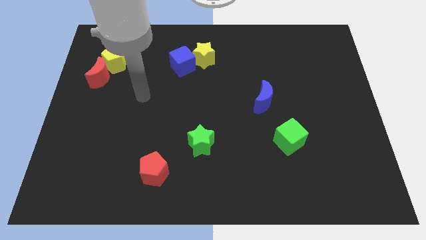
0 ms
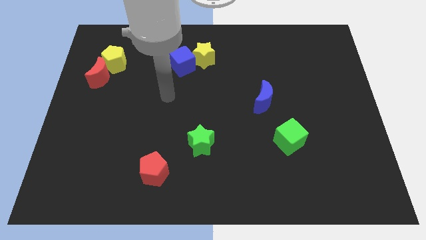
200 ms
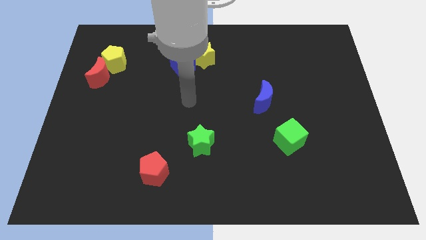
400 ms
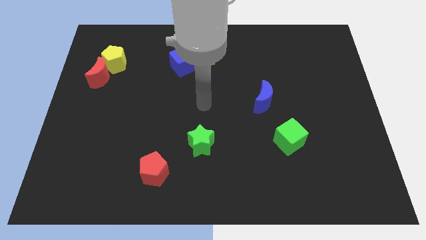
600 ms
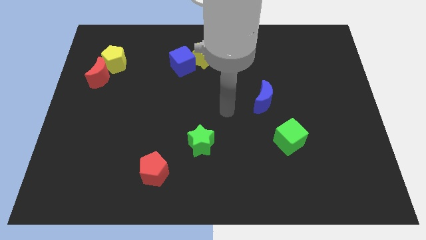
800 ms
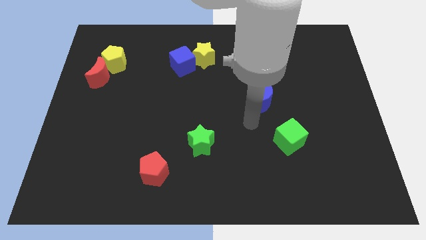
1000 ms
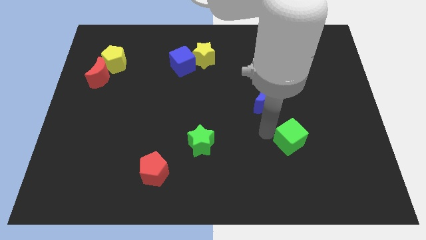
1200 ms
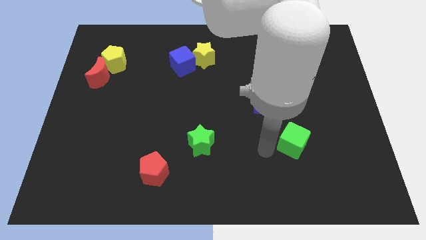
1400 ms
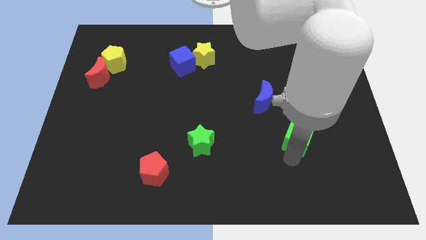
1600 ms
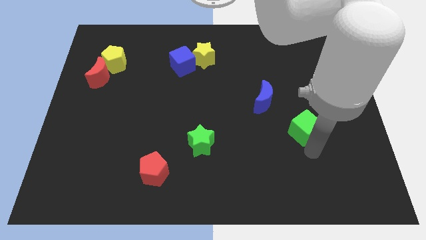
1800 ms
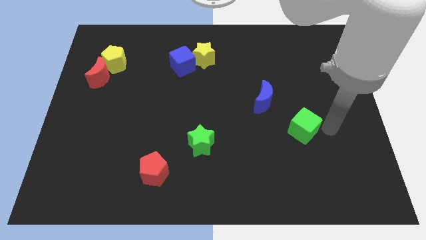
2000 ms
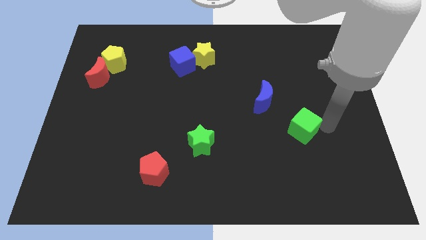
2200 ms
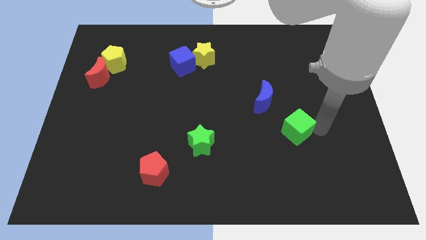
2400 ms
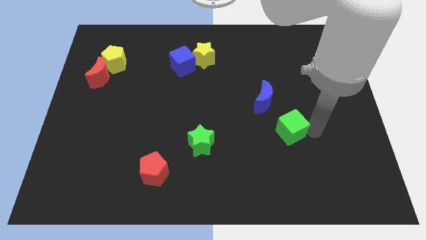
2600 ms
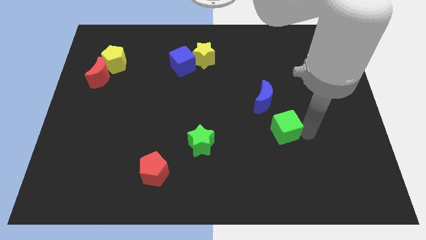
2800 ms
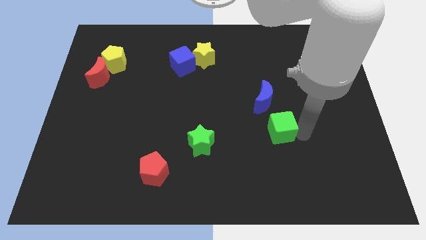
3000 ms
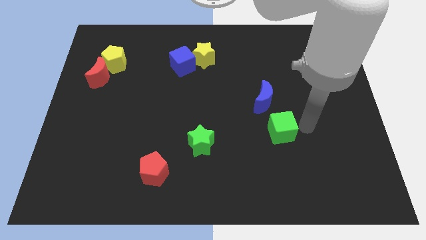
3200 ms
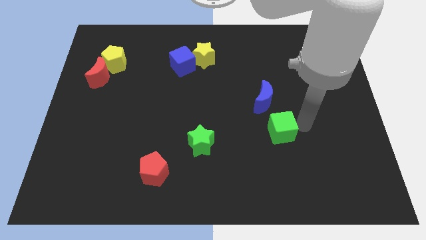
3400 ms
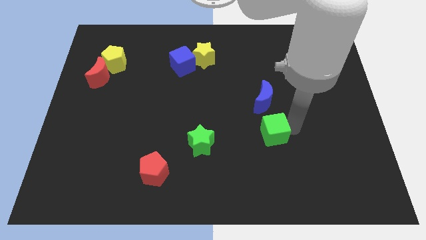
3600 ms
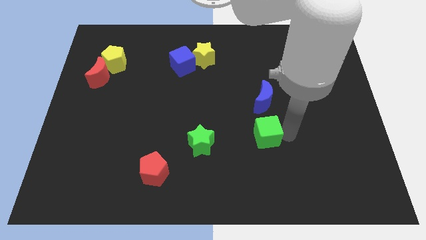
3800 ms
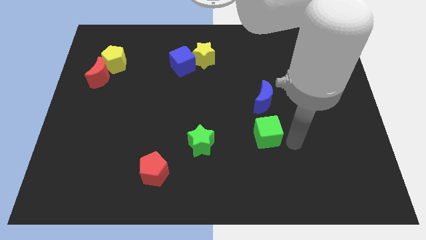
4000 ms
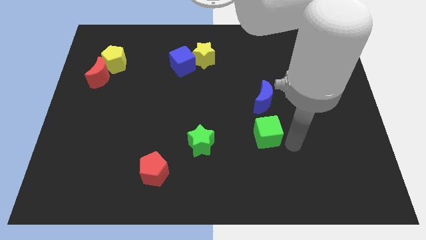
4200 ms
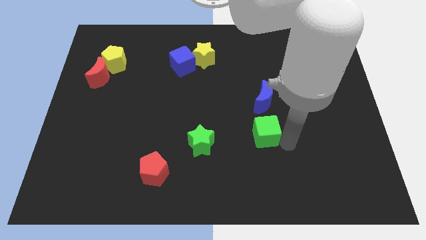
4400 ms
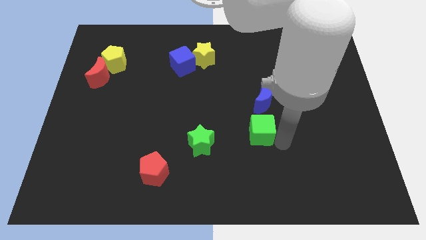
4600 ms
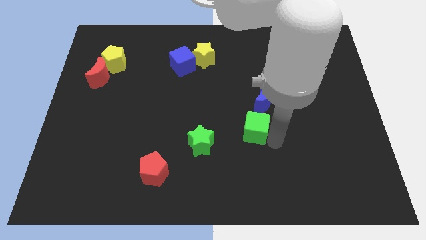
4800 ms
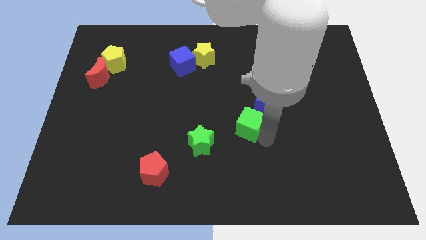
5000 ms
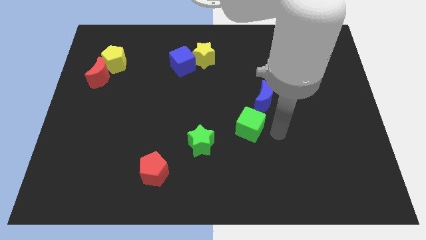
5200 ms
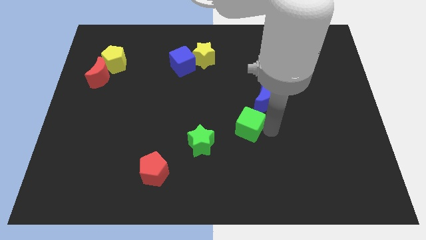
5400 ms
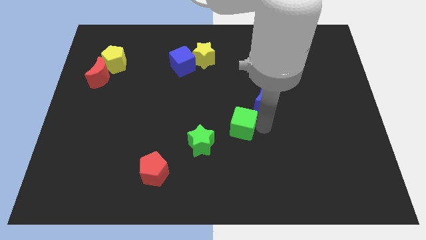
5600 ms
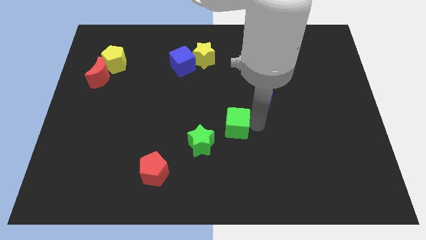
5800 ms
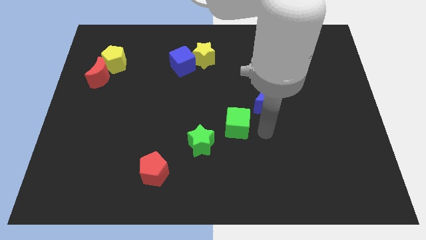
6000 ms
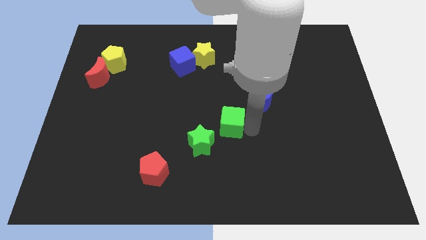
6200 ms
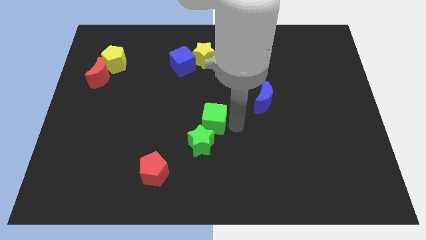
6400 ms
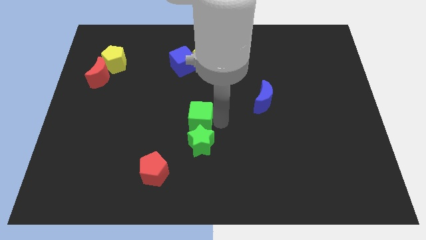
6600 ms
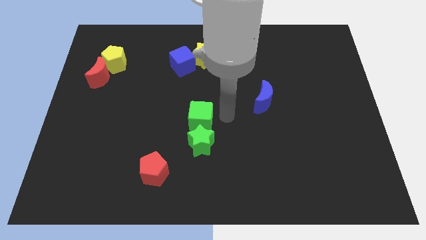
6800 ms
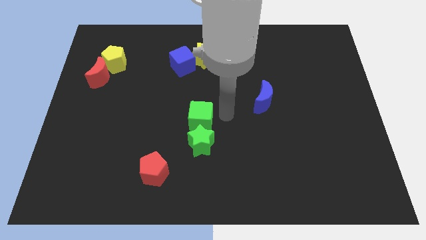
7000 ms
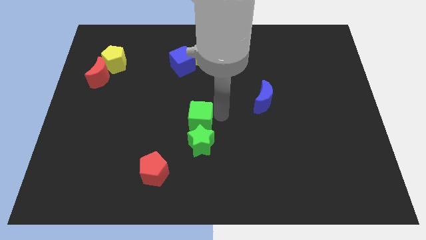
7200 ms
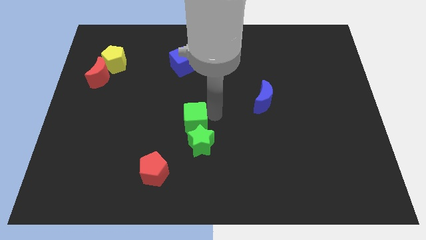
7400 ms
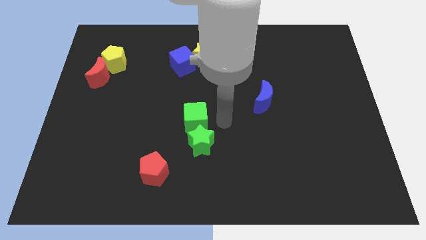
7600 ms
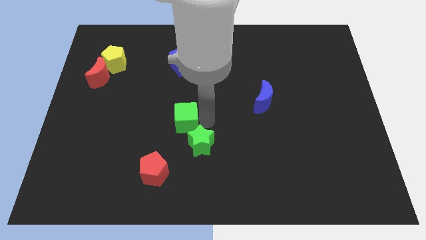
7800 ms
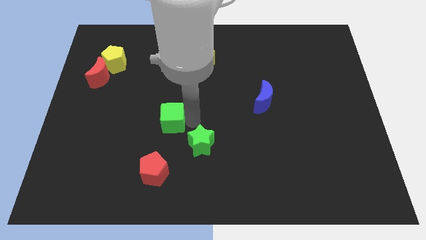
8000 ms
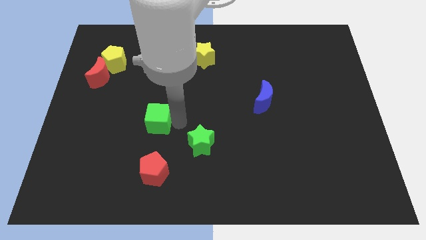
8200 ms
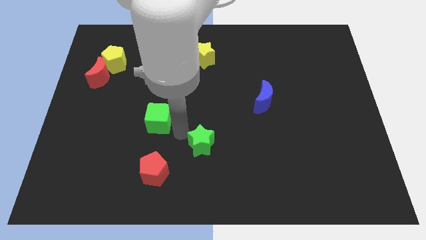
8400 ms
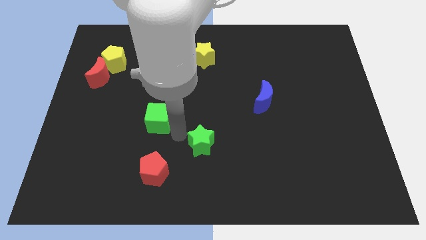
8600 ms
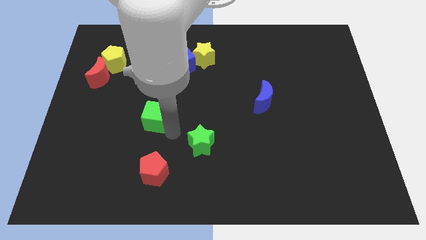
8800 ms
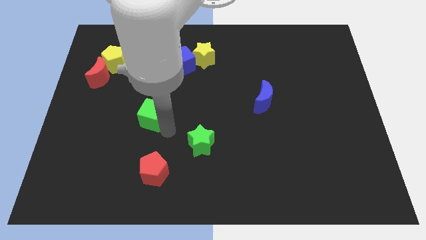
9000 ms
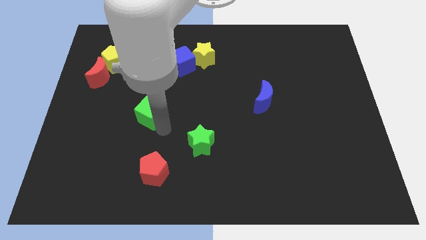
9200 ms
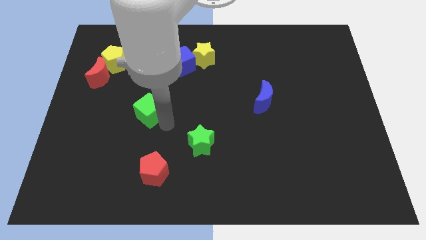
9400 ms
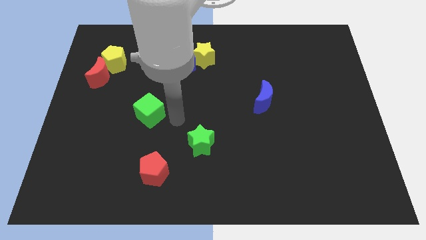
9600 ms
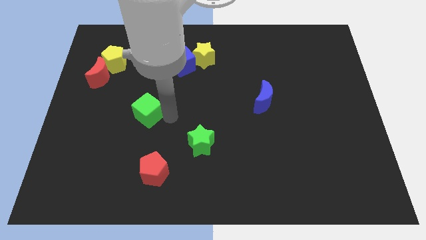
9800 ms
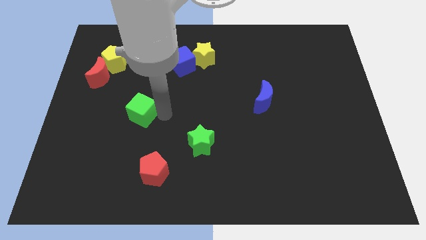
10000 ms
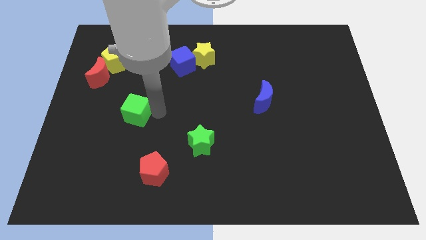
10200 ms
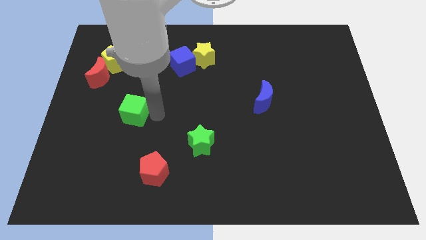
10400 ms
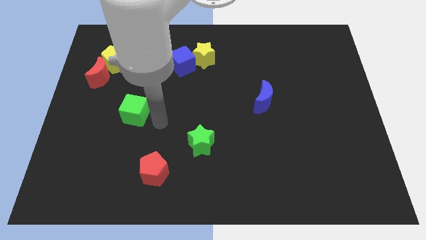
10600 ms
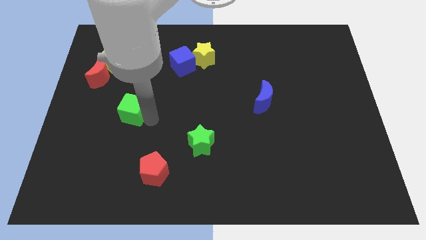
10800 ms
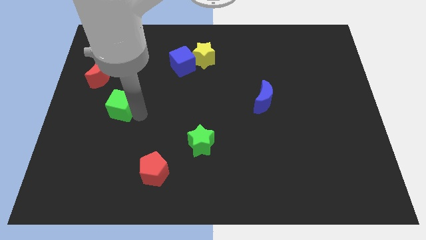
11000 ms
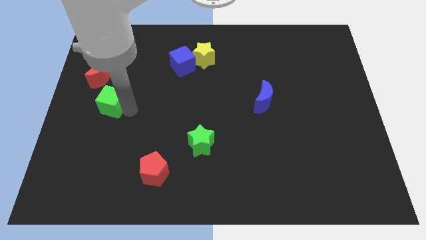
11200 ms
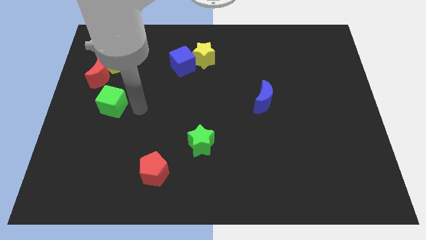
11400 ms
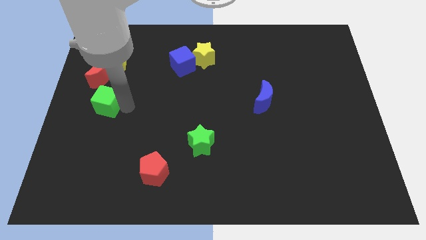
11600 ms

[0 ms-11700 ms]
slide the green cube to the left side of the board

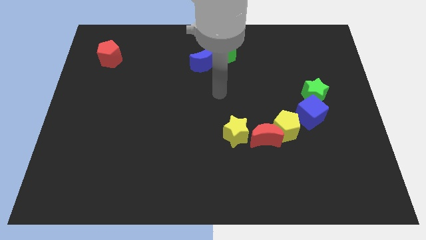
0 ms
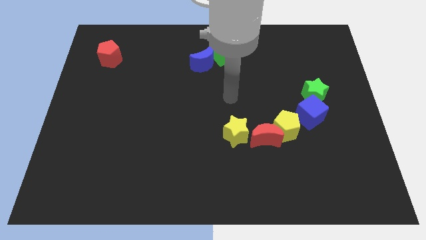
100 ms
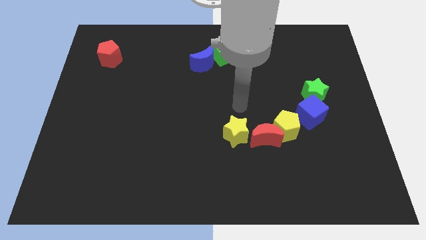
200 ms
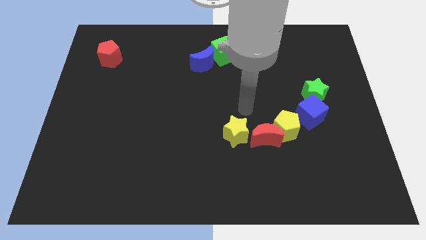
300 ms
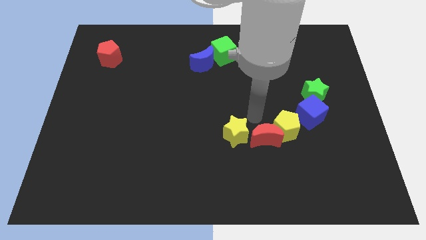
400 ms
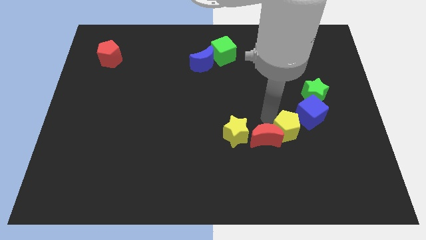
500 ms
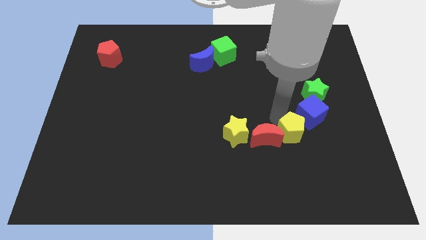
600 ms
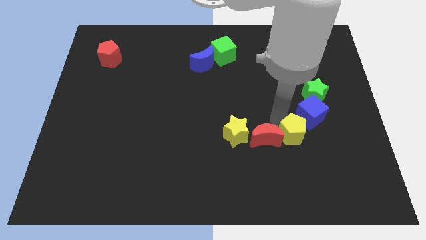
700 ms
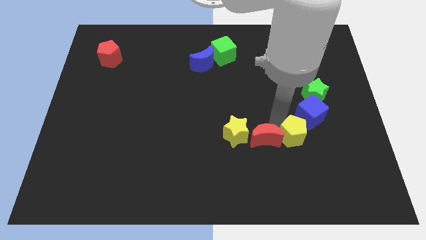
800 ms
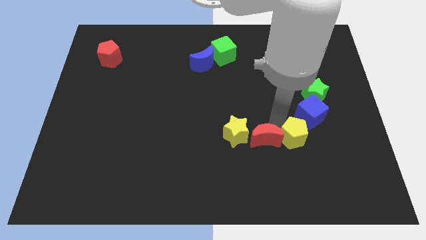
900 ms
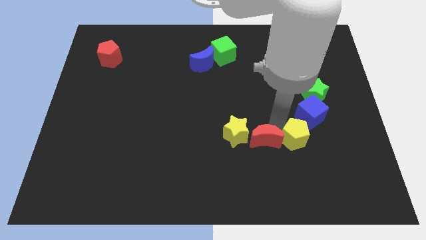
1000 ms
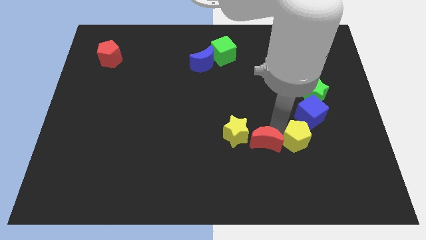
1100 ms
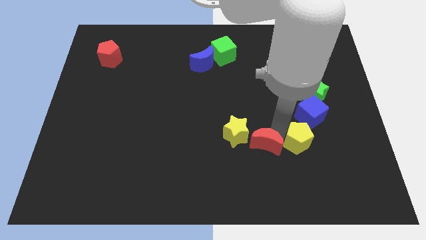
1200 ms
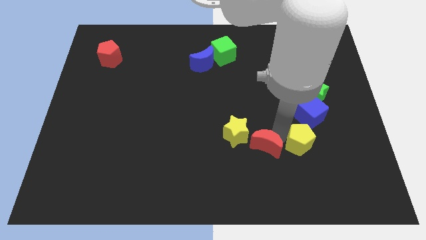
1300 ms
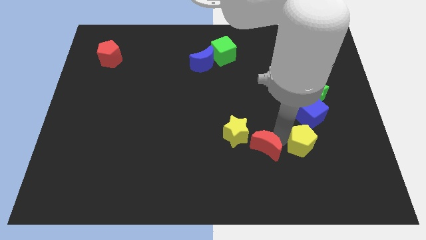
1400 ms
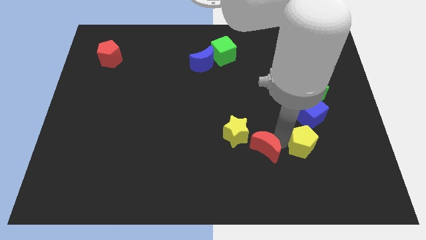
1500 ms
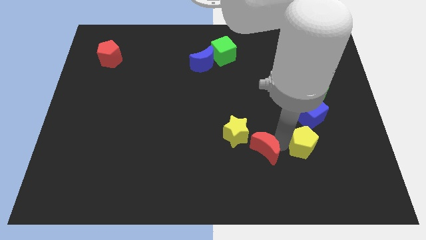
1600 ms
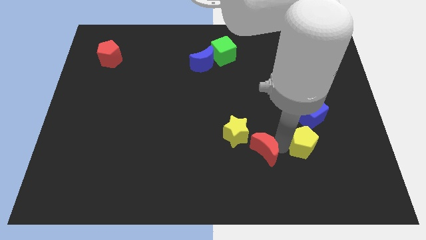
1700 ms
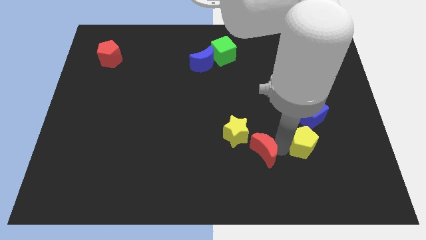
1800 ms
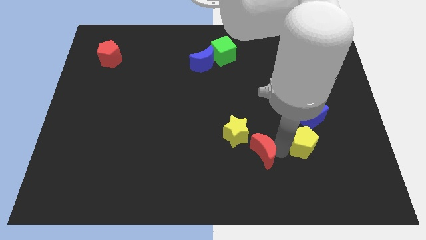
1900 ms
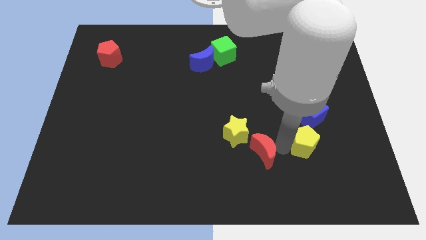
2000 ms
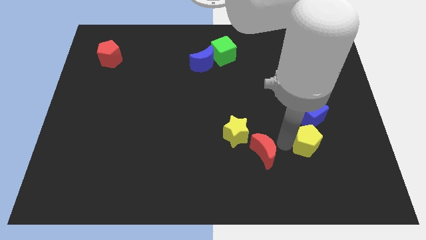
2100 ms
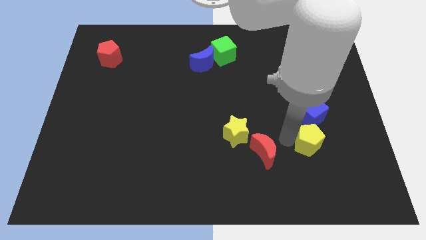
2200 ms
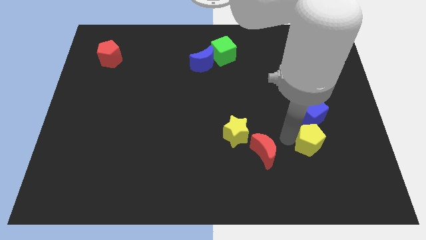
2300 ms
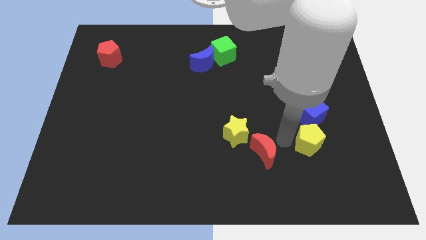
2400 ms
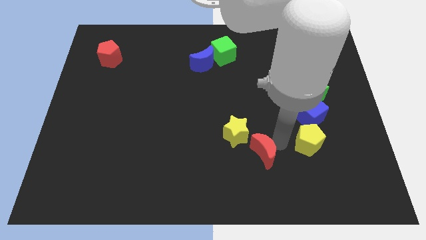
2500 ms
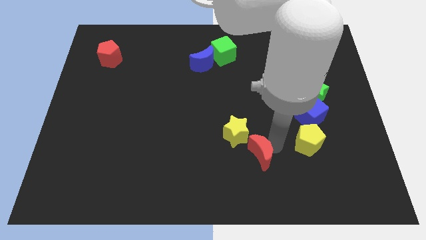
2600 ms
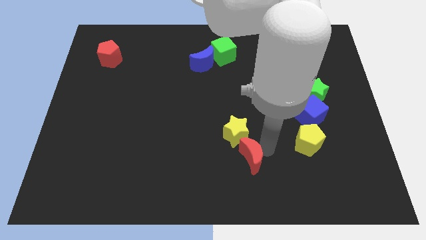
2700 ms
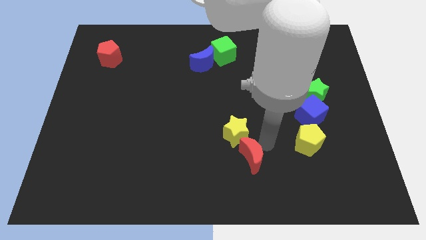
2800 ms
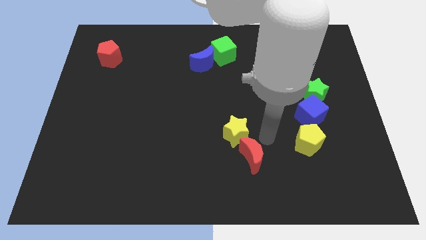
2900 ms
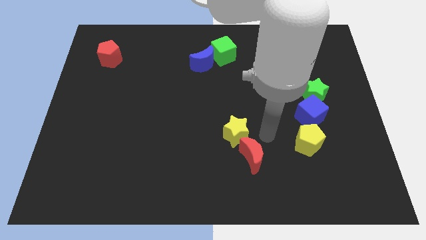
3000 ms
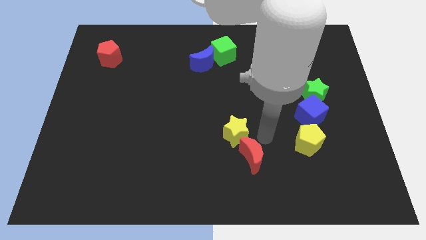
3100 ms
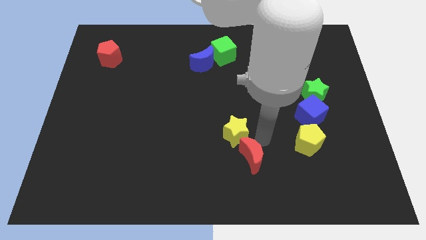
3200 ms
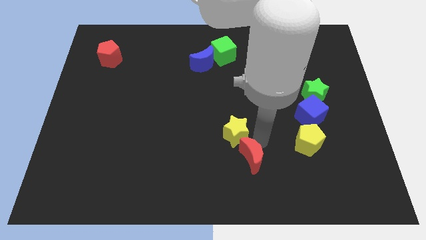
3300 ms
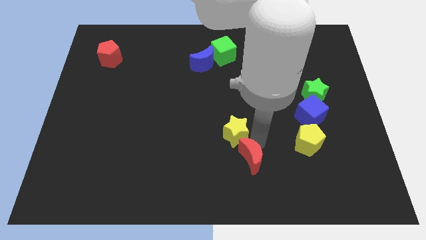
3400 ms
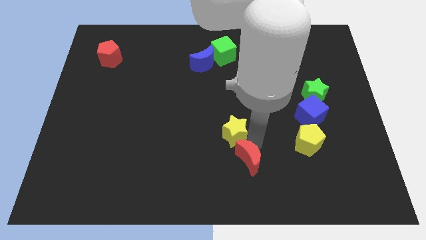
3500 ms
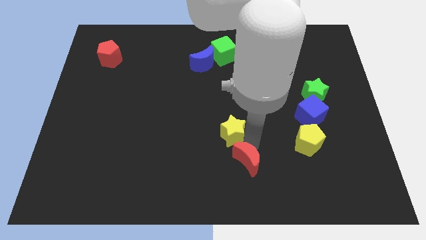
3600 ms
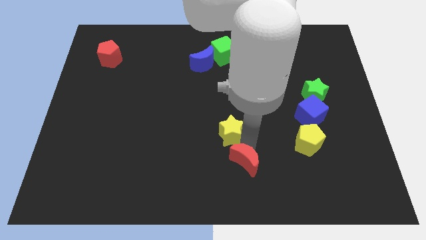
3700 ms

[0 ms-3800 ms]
put the red moon to the bottom
